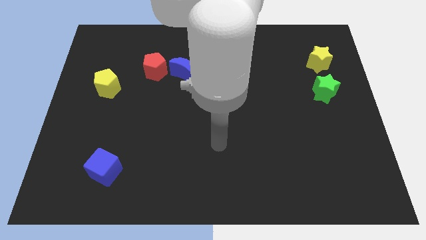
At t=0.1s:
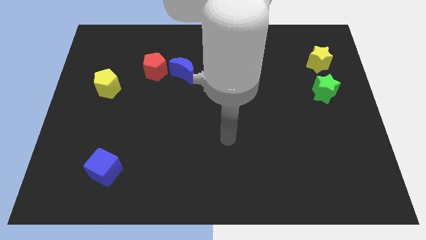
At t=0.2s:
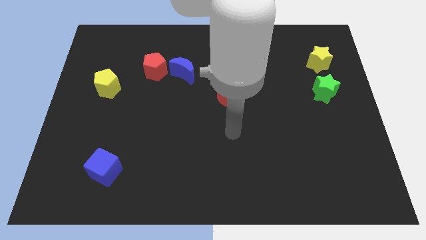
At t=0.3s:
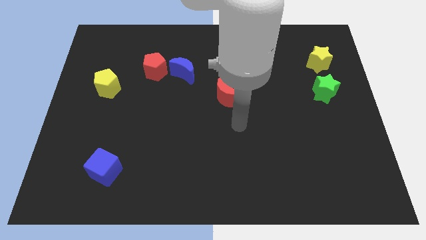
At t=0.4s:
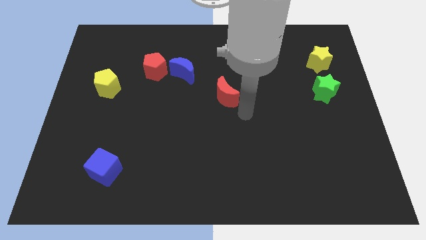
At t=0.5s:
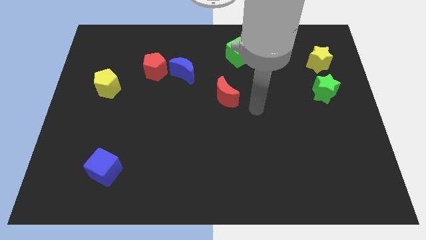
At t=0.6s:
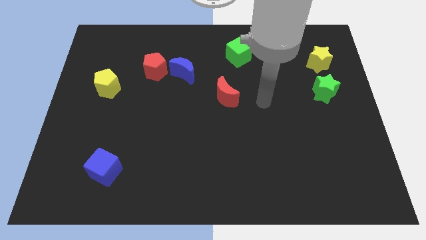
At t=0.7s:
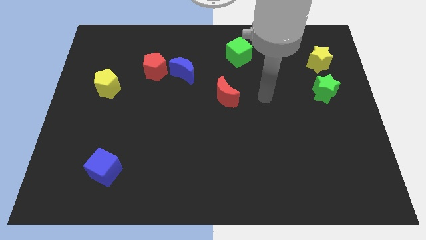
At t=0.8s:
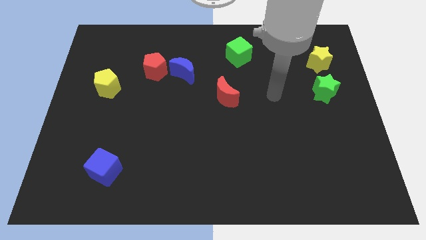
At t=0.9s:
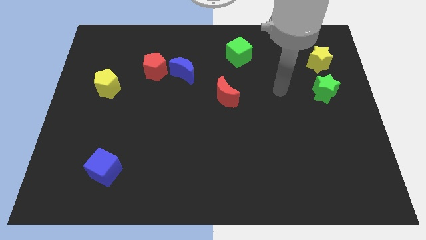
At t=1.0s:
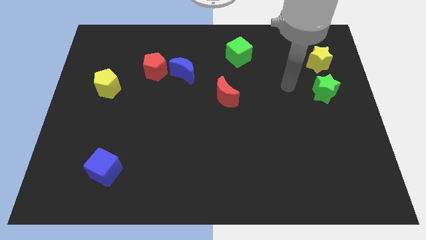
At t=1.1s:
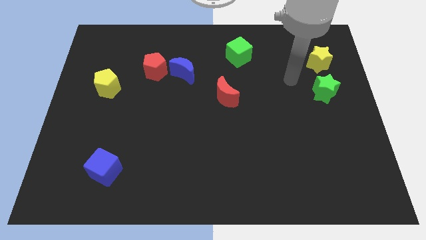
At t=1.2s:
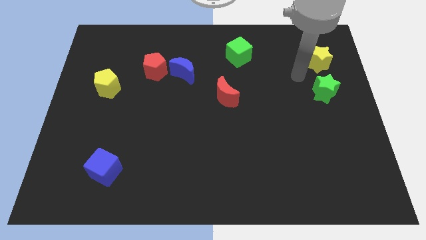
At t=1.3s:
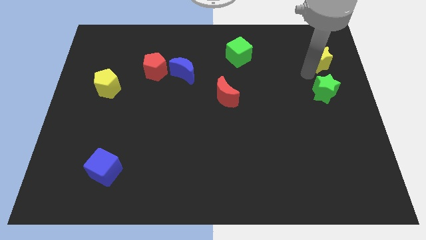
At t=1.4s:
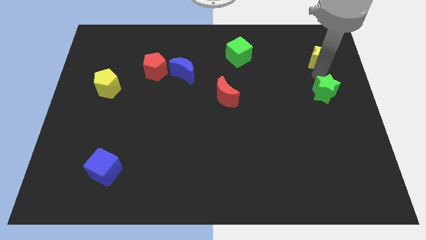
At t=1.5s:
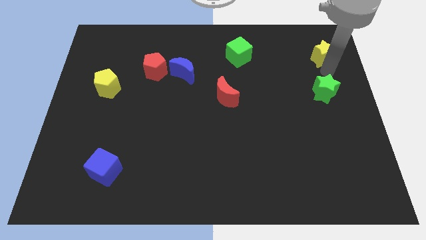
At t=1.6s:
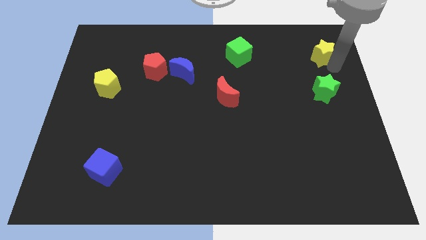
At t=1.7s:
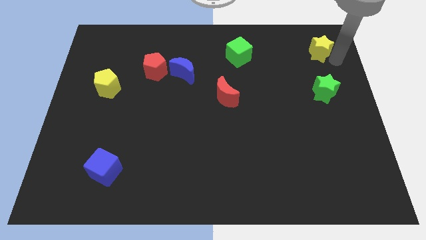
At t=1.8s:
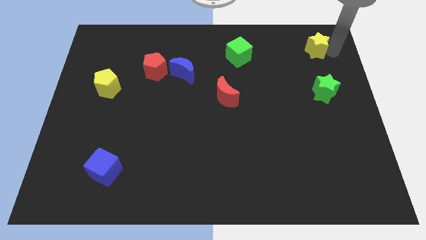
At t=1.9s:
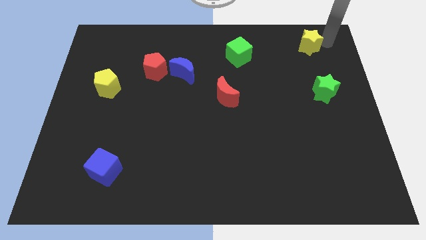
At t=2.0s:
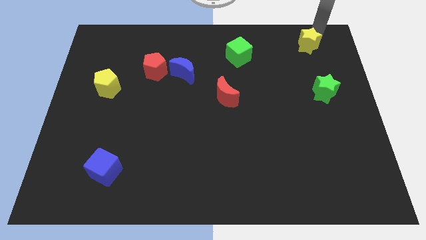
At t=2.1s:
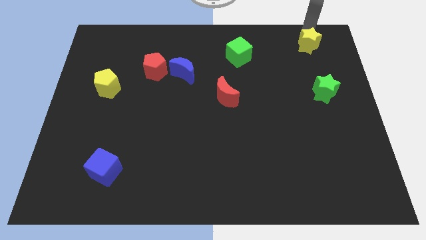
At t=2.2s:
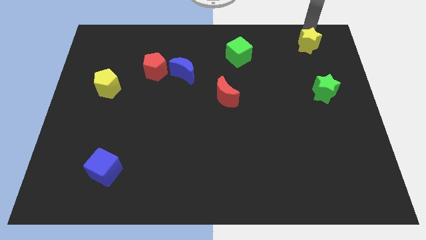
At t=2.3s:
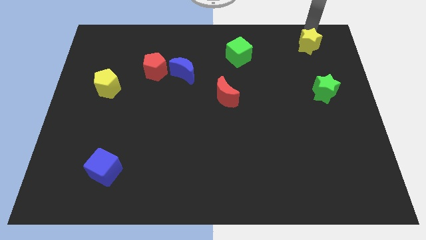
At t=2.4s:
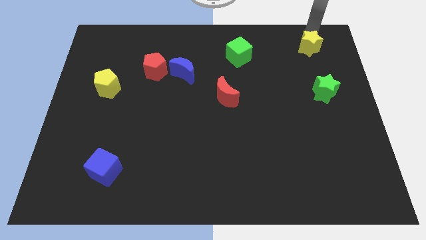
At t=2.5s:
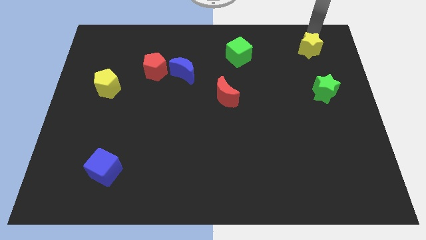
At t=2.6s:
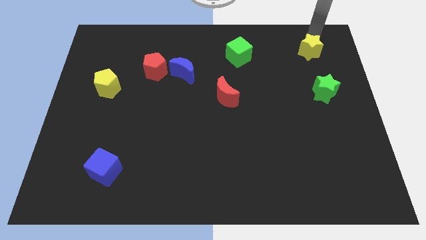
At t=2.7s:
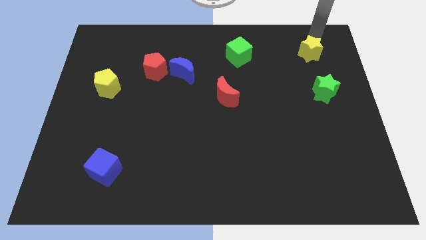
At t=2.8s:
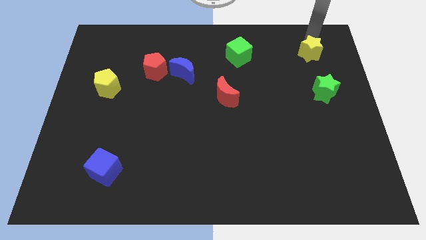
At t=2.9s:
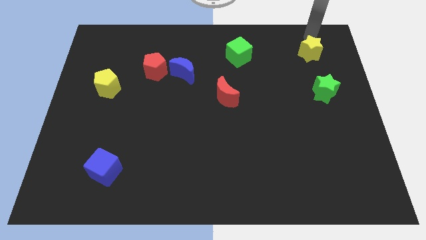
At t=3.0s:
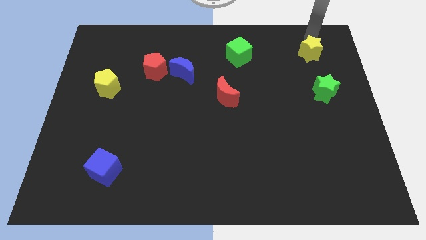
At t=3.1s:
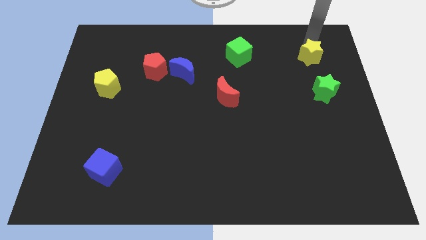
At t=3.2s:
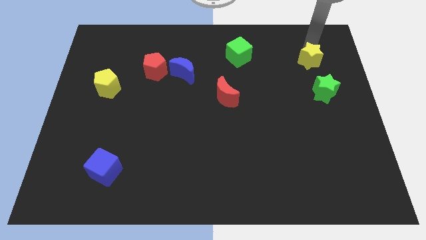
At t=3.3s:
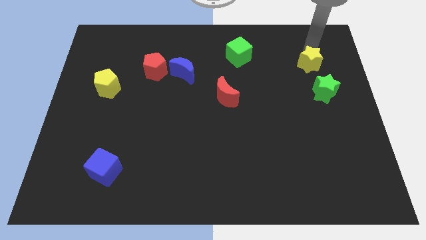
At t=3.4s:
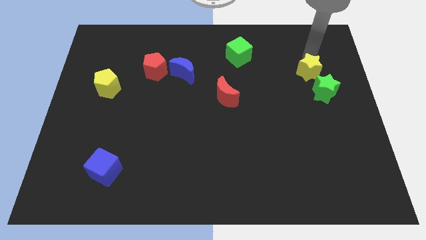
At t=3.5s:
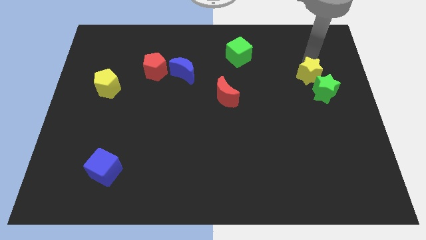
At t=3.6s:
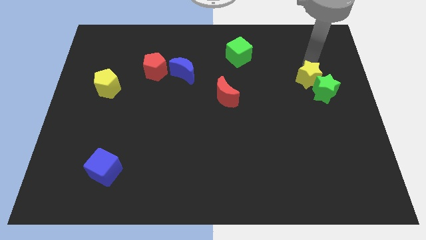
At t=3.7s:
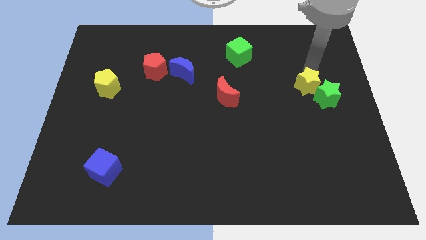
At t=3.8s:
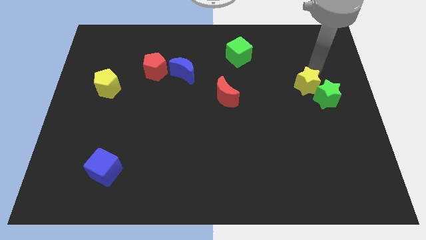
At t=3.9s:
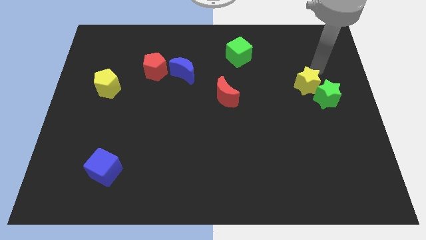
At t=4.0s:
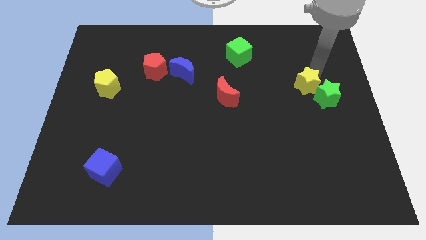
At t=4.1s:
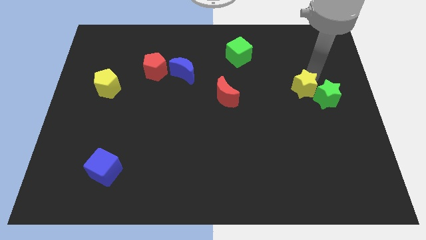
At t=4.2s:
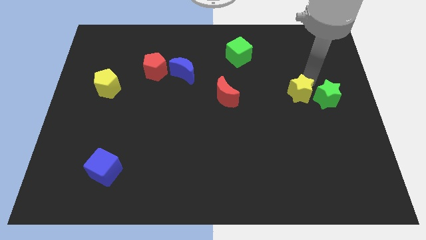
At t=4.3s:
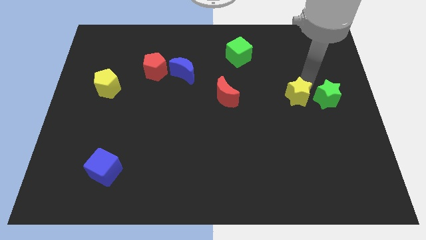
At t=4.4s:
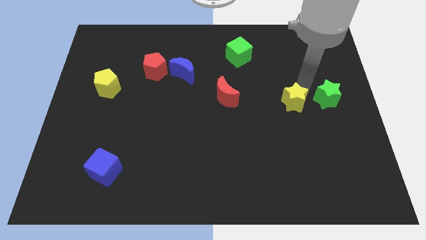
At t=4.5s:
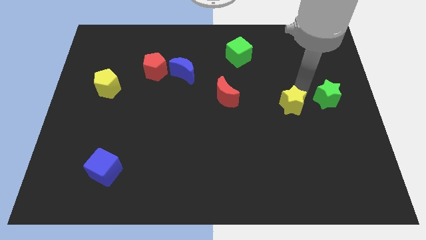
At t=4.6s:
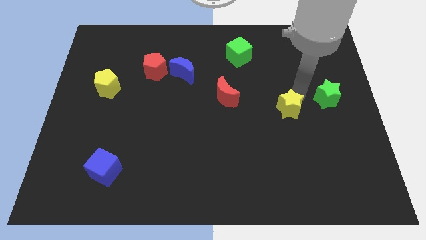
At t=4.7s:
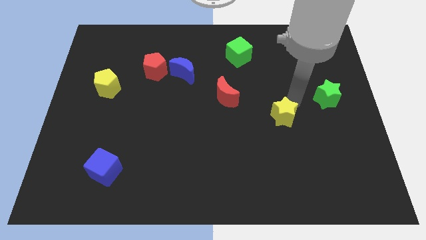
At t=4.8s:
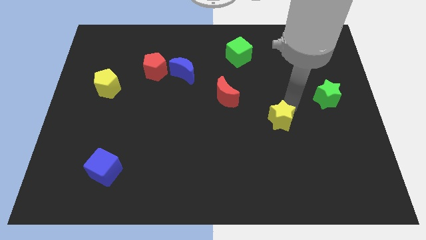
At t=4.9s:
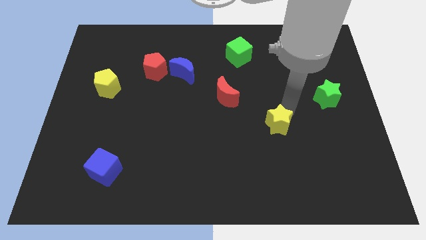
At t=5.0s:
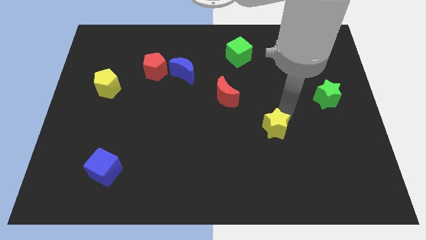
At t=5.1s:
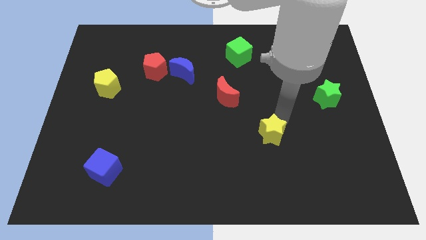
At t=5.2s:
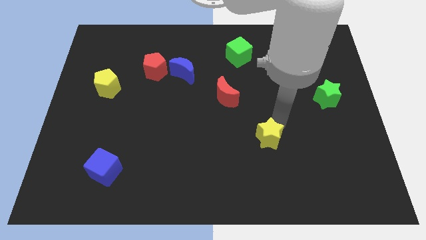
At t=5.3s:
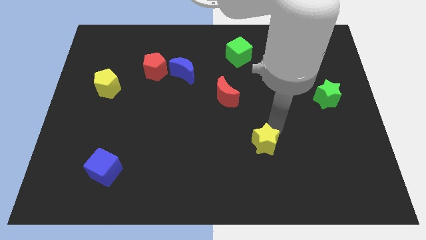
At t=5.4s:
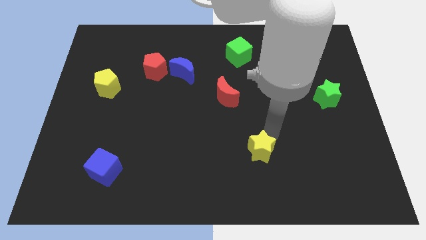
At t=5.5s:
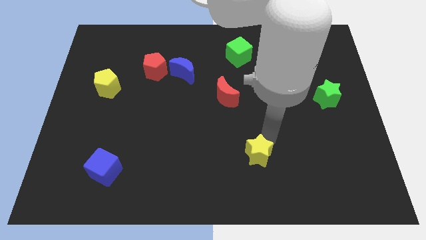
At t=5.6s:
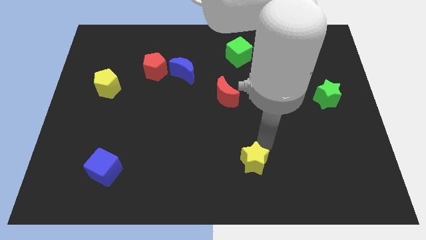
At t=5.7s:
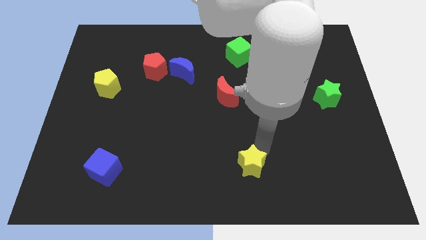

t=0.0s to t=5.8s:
put the yellow star to the bottom
